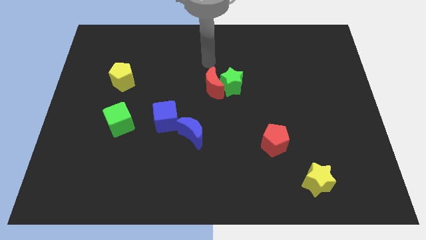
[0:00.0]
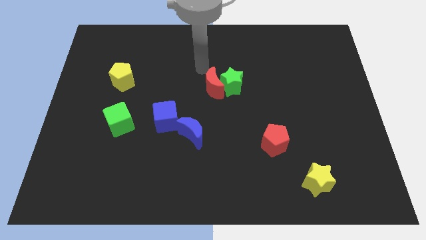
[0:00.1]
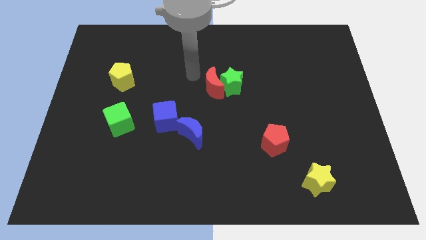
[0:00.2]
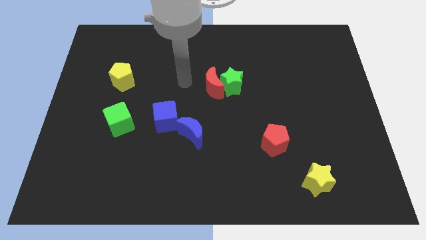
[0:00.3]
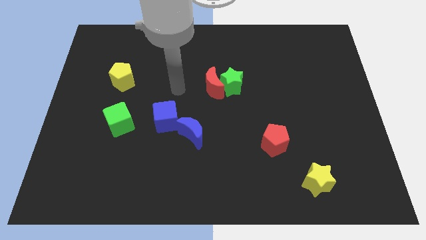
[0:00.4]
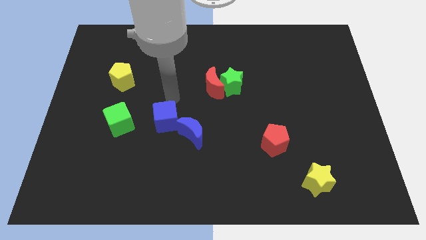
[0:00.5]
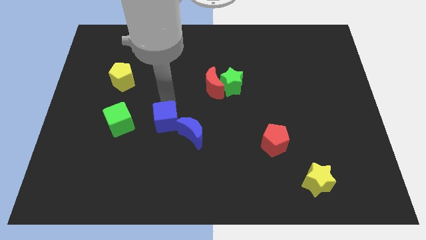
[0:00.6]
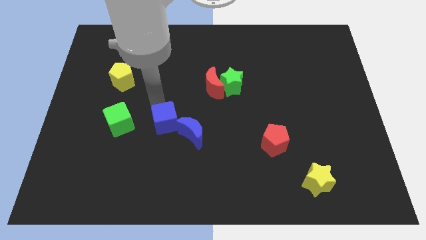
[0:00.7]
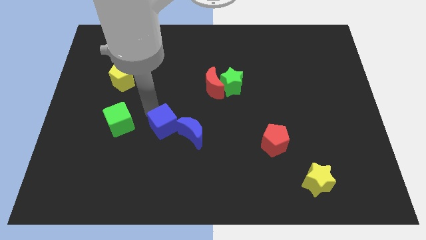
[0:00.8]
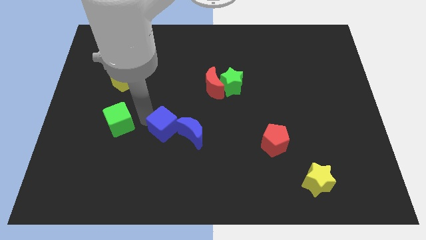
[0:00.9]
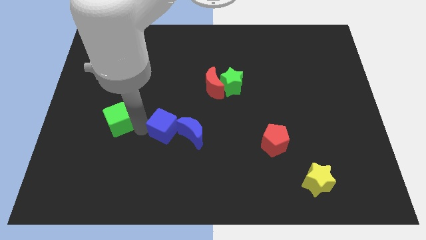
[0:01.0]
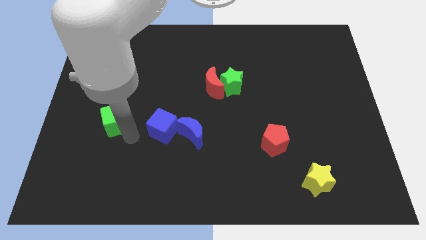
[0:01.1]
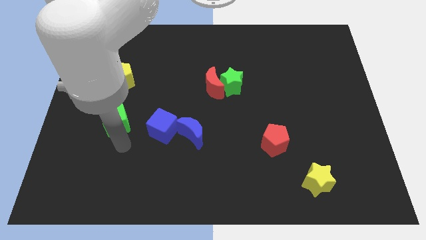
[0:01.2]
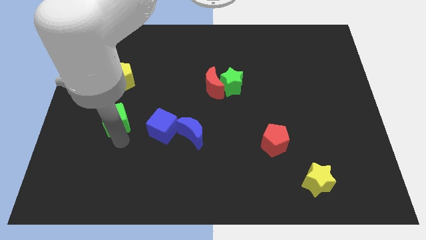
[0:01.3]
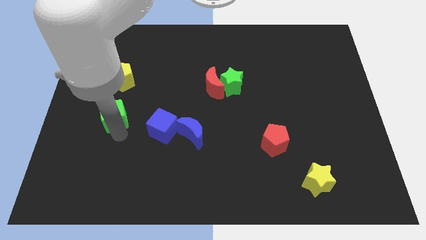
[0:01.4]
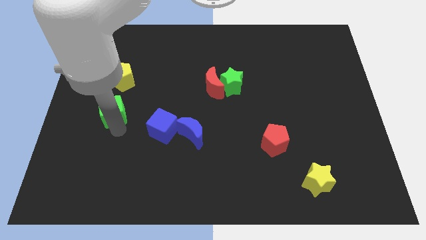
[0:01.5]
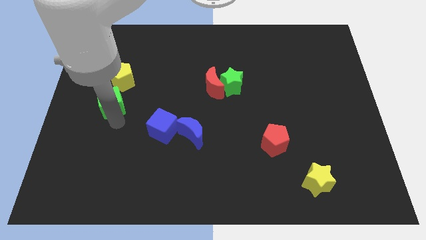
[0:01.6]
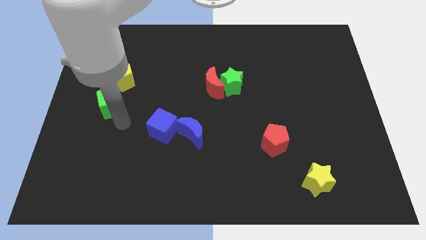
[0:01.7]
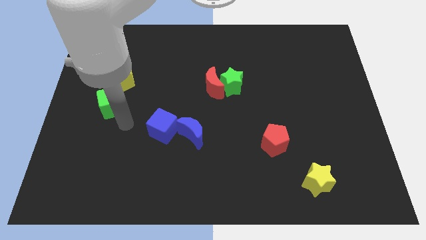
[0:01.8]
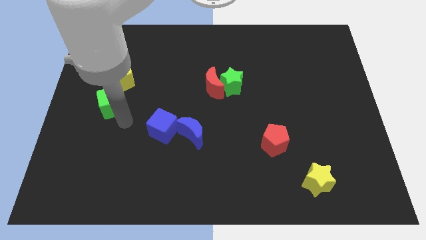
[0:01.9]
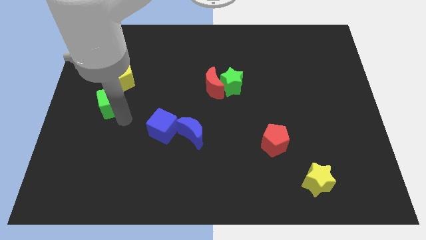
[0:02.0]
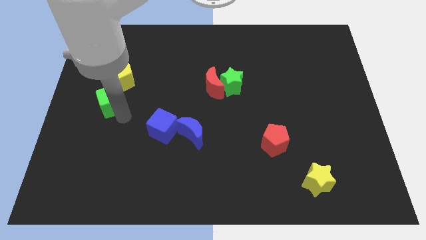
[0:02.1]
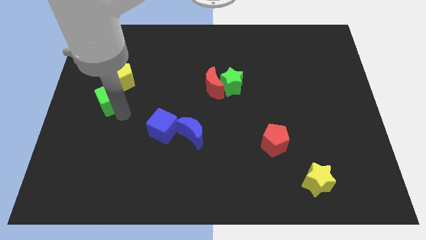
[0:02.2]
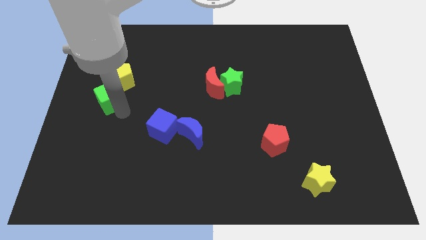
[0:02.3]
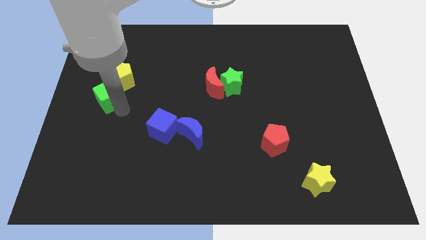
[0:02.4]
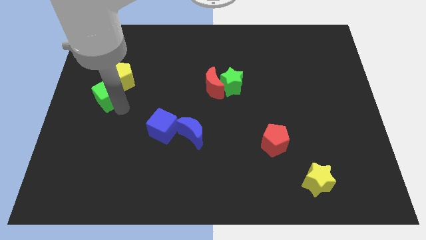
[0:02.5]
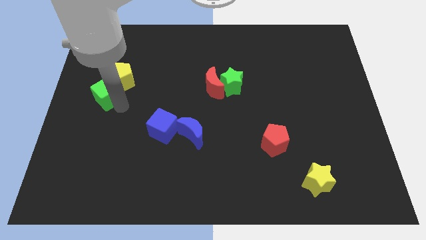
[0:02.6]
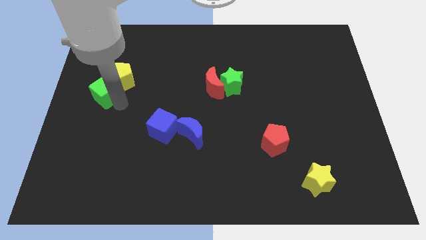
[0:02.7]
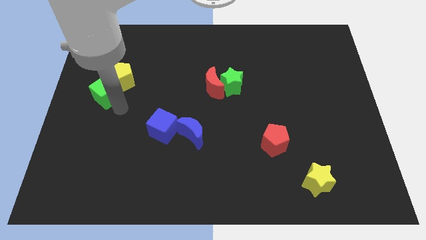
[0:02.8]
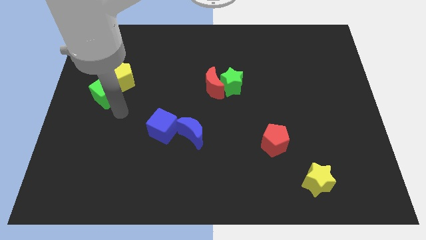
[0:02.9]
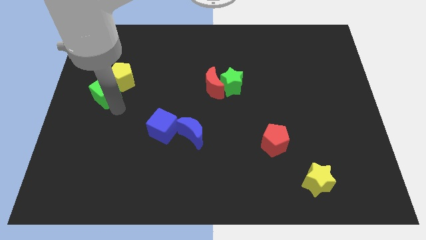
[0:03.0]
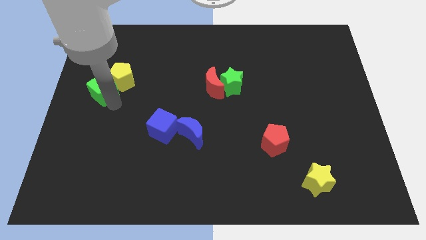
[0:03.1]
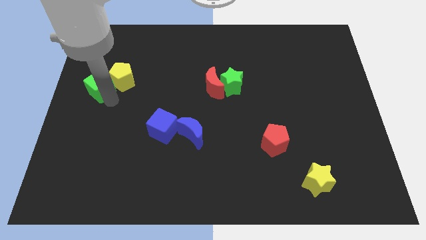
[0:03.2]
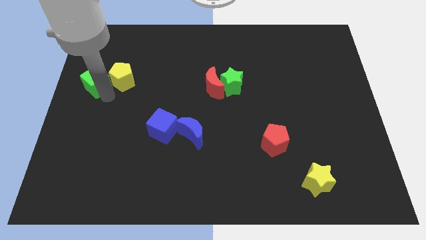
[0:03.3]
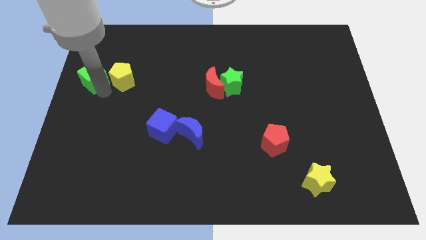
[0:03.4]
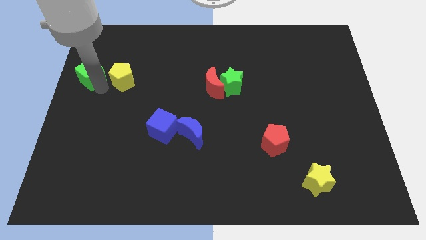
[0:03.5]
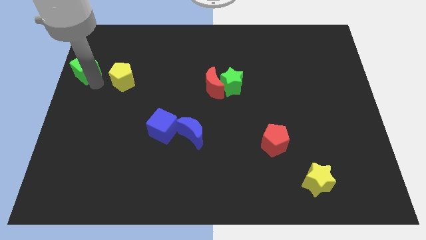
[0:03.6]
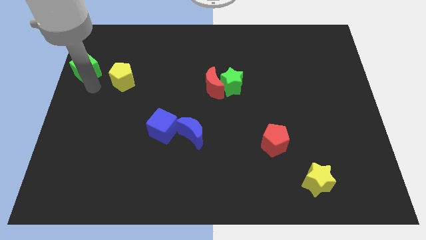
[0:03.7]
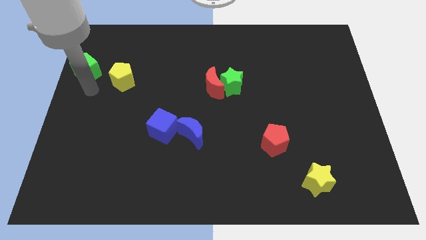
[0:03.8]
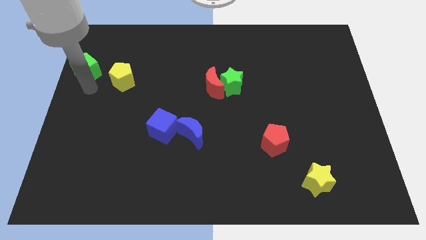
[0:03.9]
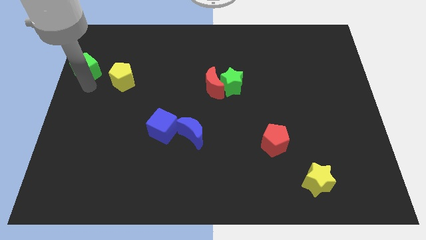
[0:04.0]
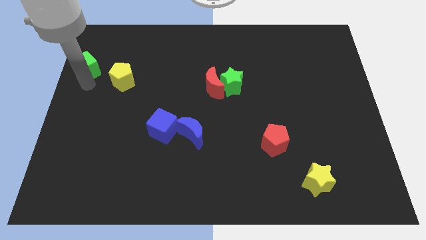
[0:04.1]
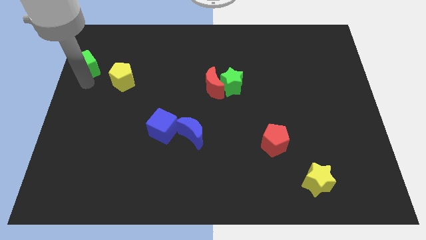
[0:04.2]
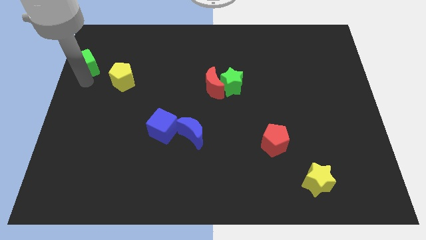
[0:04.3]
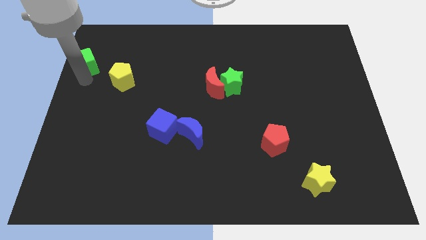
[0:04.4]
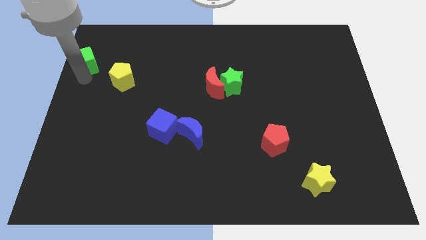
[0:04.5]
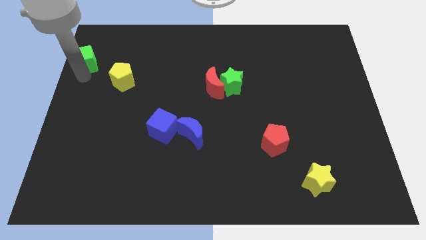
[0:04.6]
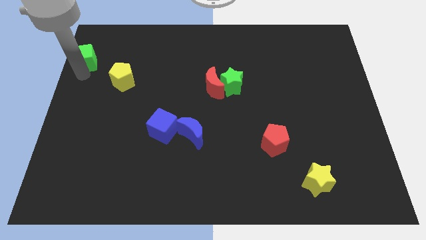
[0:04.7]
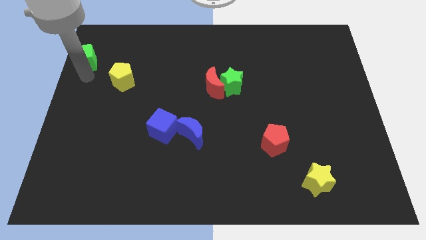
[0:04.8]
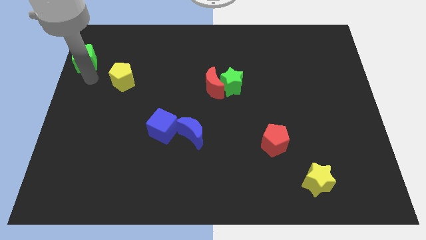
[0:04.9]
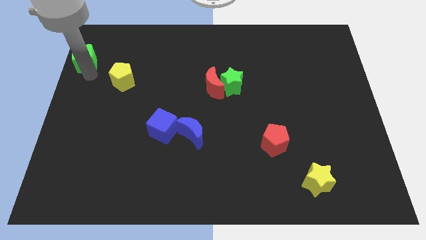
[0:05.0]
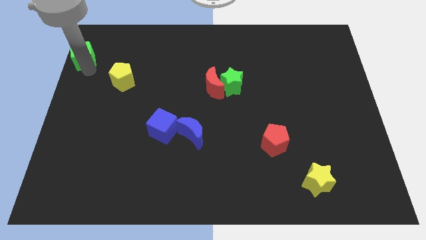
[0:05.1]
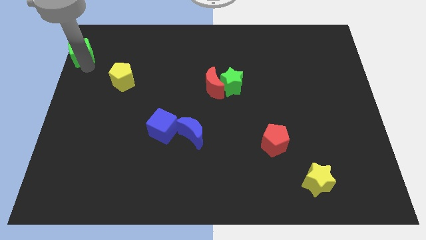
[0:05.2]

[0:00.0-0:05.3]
move the green cube to the upper left corner

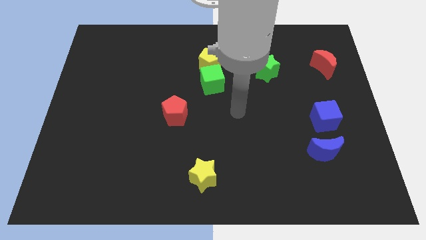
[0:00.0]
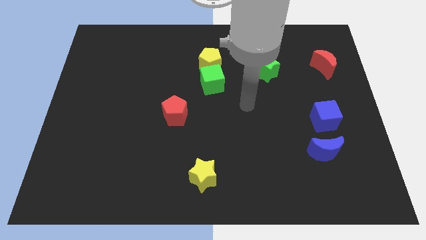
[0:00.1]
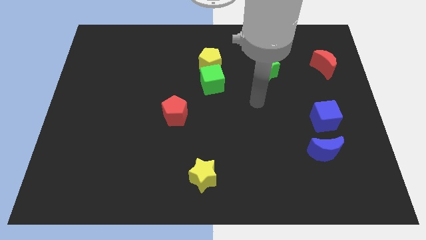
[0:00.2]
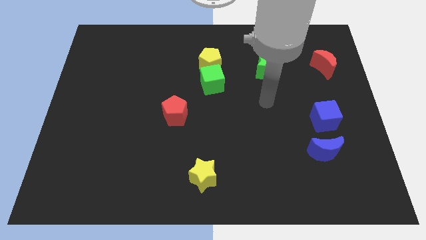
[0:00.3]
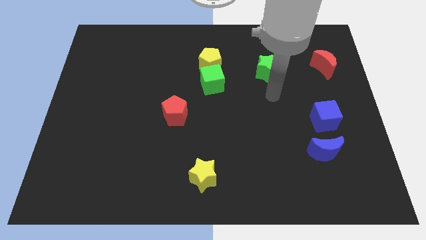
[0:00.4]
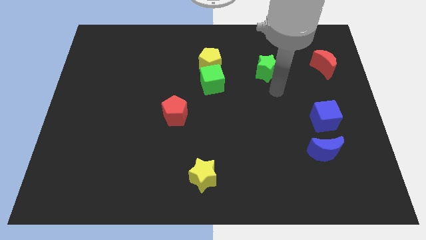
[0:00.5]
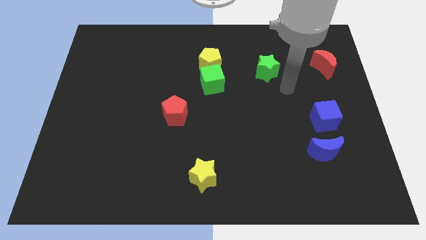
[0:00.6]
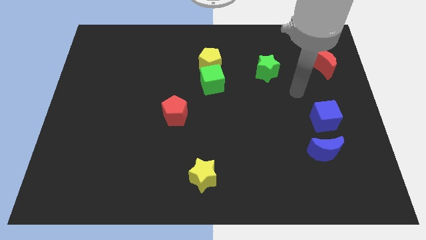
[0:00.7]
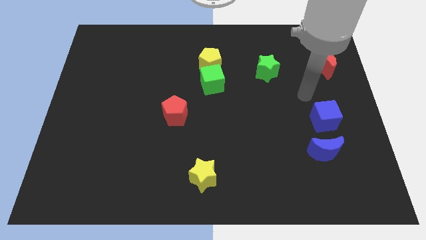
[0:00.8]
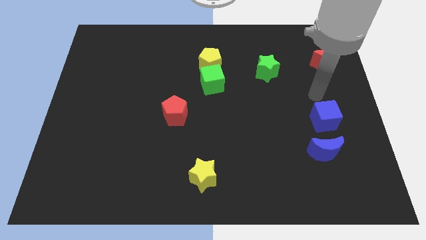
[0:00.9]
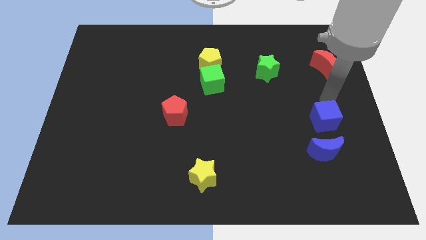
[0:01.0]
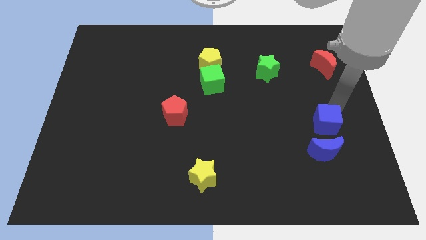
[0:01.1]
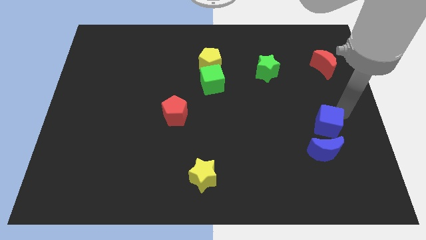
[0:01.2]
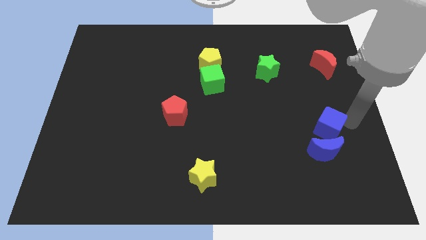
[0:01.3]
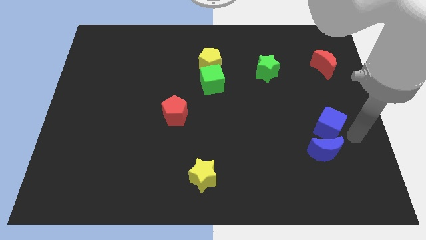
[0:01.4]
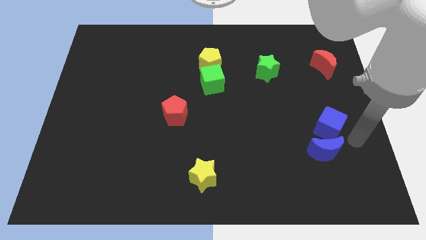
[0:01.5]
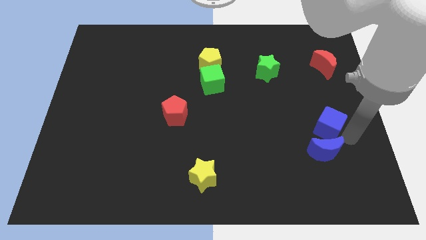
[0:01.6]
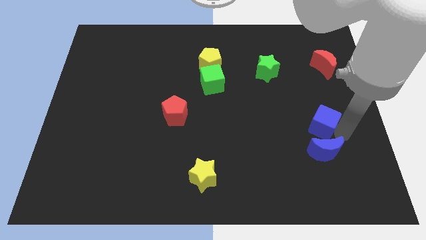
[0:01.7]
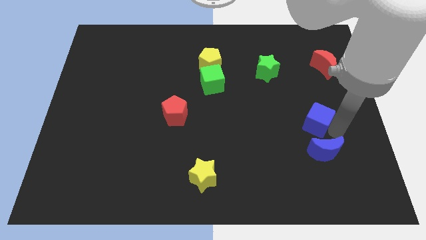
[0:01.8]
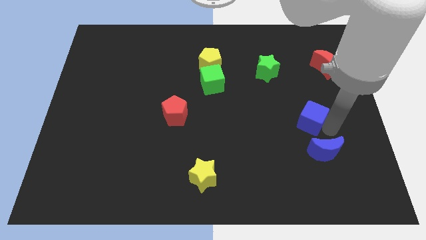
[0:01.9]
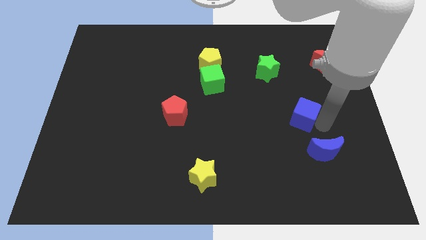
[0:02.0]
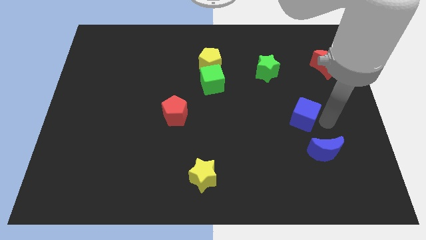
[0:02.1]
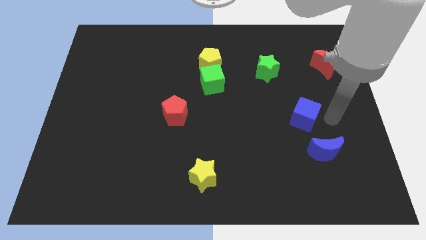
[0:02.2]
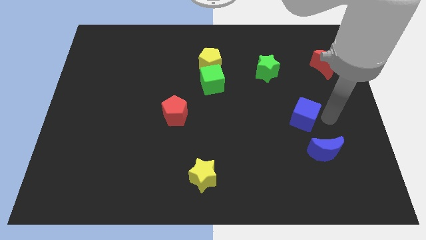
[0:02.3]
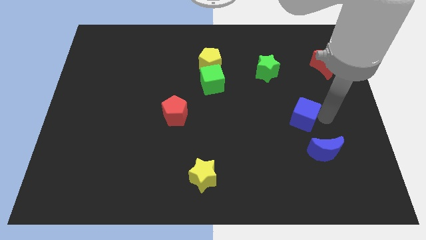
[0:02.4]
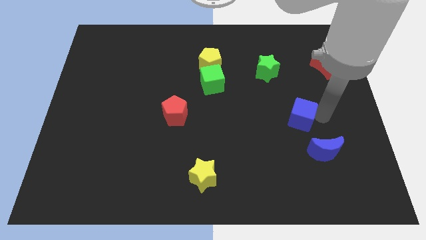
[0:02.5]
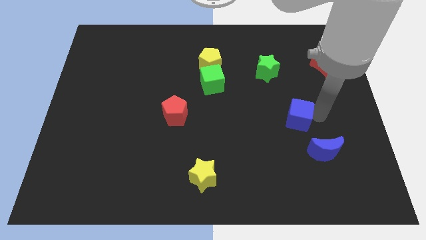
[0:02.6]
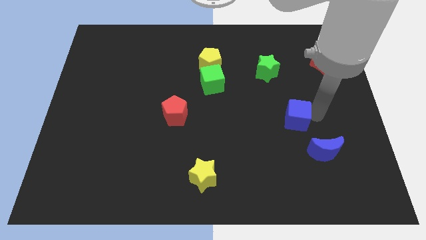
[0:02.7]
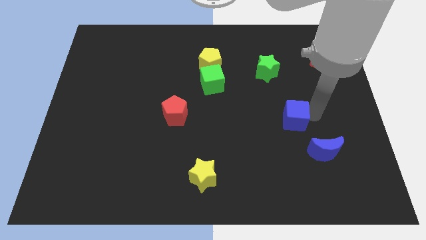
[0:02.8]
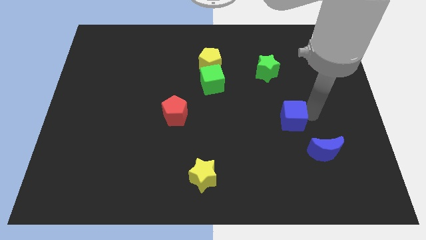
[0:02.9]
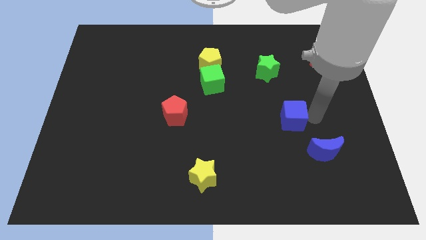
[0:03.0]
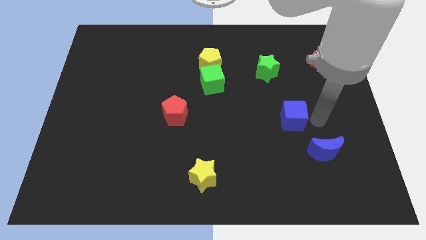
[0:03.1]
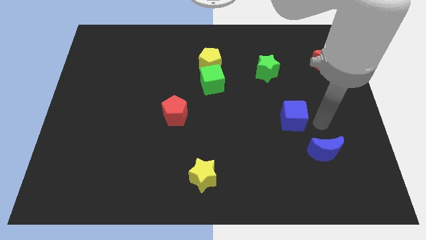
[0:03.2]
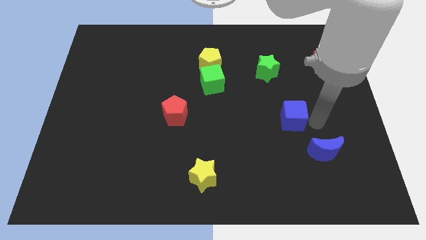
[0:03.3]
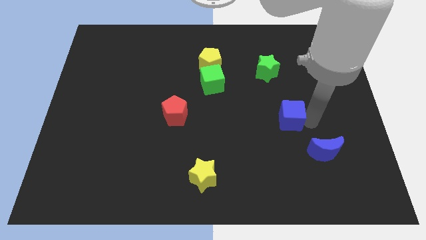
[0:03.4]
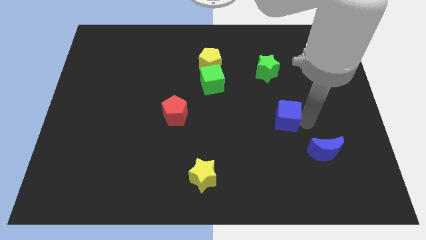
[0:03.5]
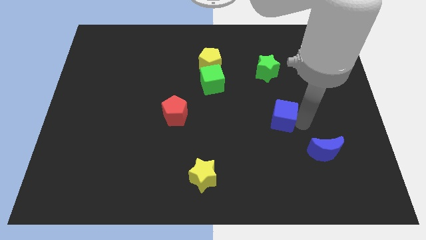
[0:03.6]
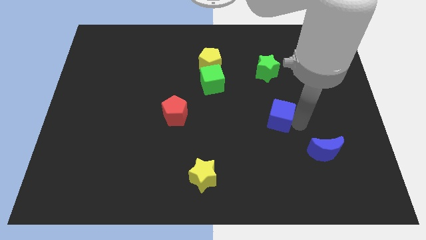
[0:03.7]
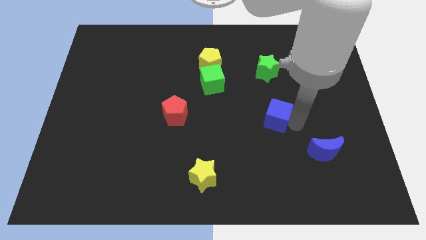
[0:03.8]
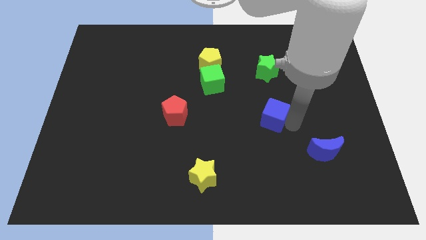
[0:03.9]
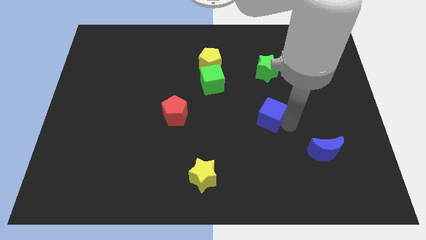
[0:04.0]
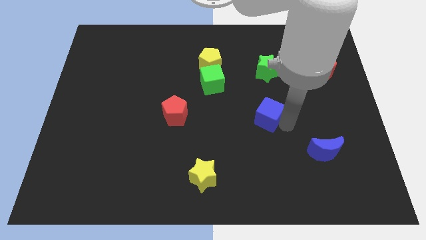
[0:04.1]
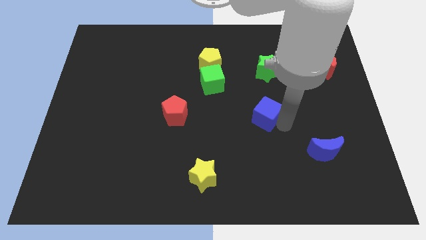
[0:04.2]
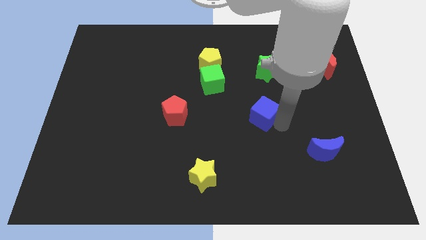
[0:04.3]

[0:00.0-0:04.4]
slide the blue cube to the center
